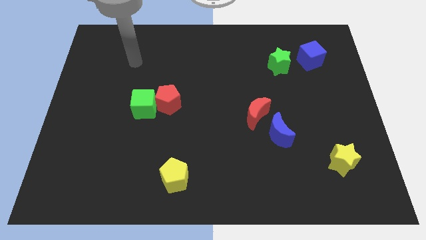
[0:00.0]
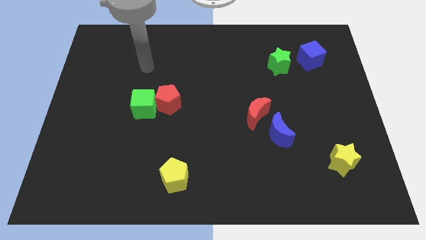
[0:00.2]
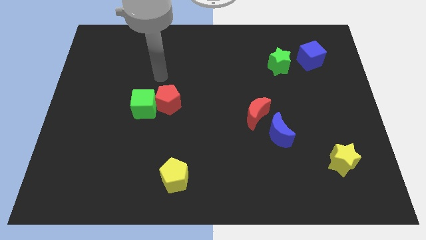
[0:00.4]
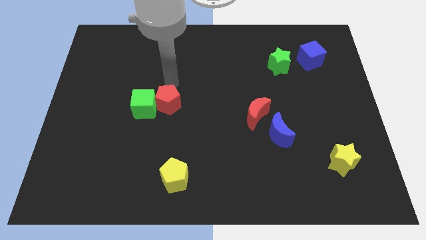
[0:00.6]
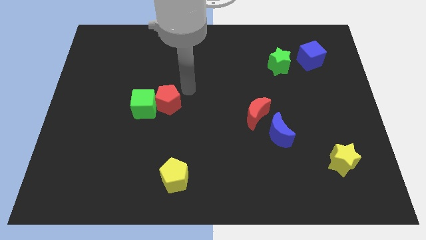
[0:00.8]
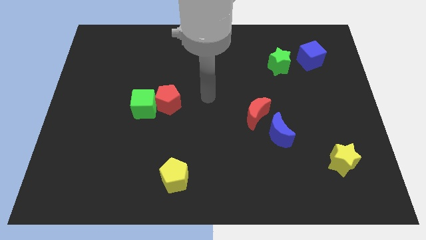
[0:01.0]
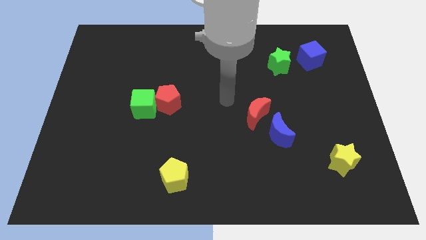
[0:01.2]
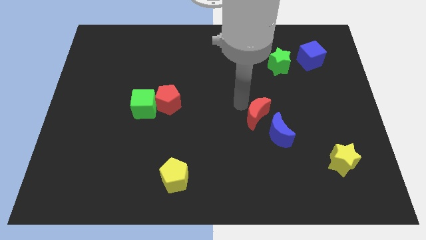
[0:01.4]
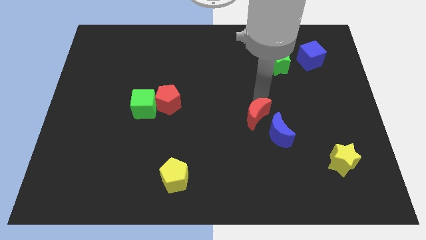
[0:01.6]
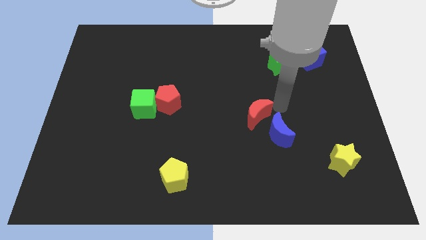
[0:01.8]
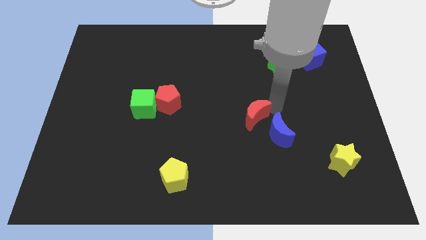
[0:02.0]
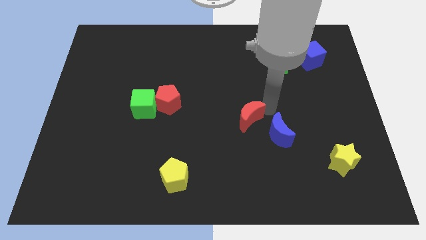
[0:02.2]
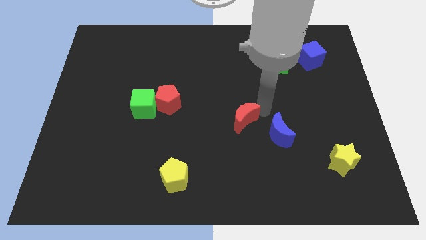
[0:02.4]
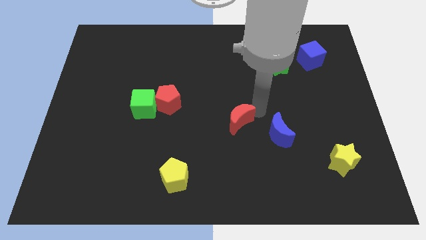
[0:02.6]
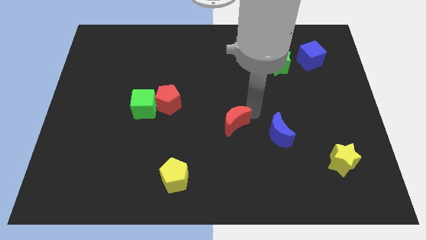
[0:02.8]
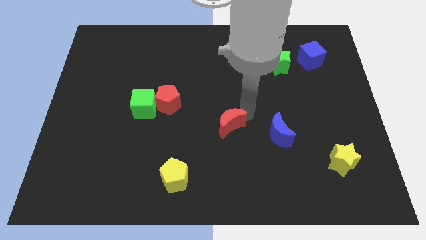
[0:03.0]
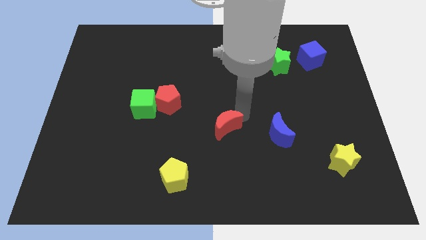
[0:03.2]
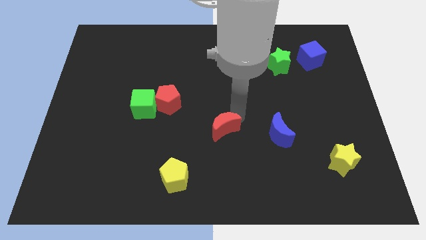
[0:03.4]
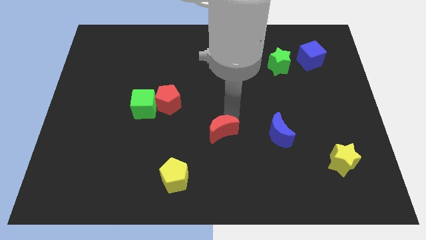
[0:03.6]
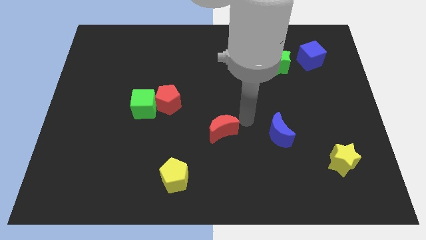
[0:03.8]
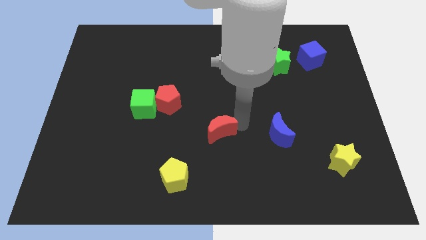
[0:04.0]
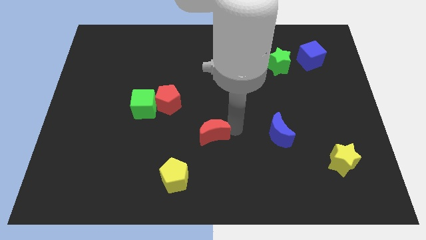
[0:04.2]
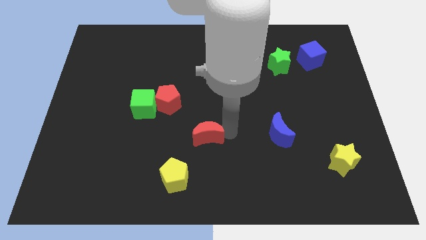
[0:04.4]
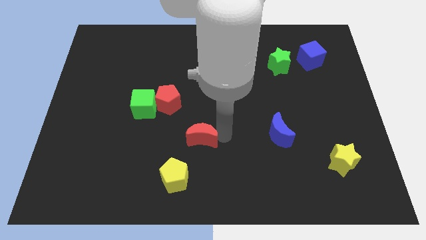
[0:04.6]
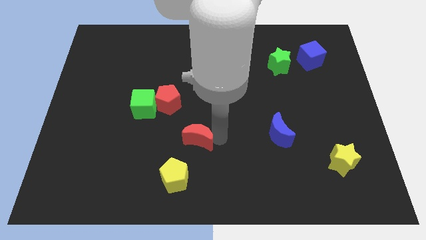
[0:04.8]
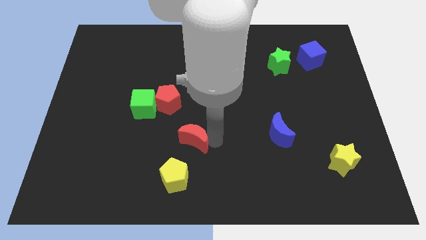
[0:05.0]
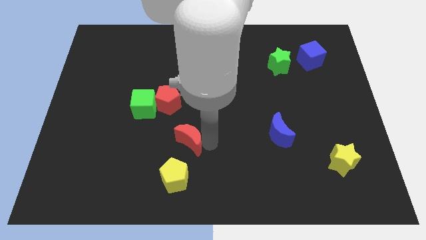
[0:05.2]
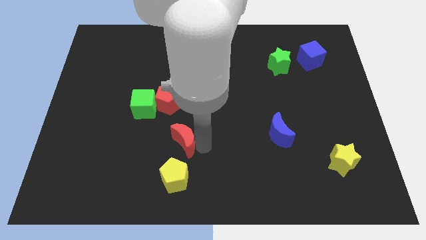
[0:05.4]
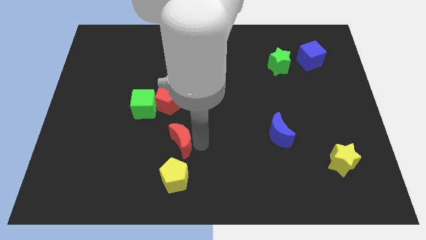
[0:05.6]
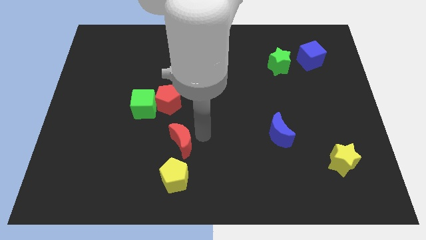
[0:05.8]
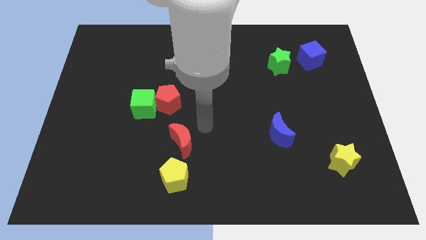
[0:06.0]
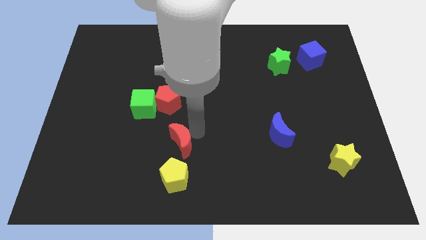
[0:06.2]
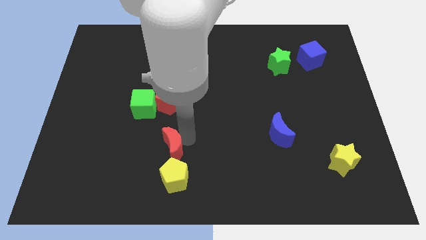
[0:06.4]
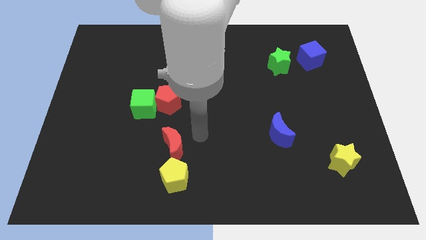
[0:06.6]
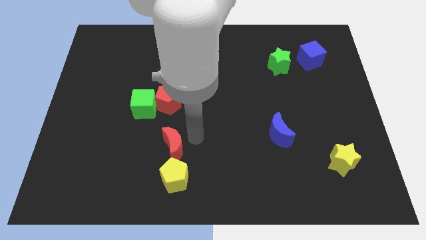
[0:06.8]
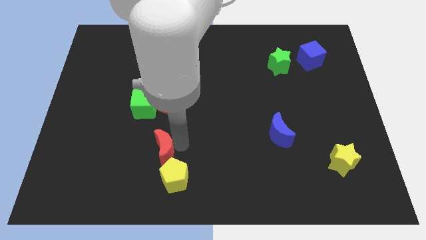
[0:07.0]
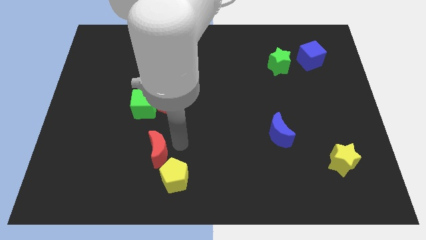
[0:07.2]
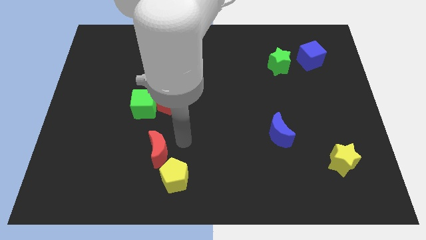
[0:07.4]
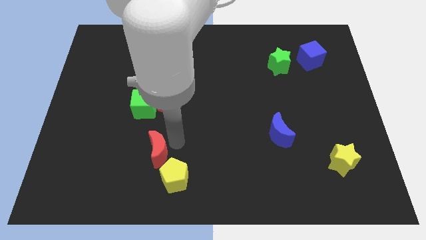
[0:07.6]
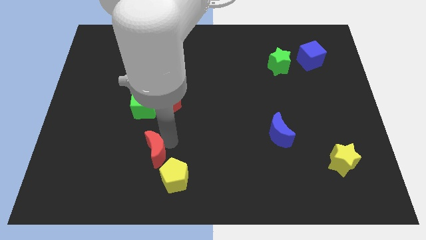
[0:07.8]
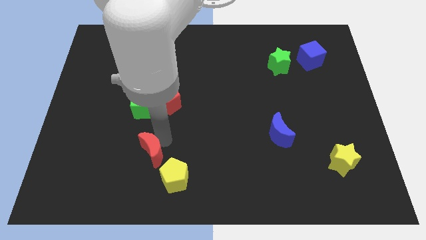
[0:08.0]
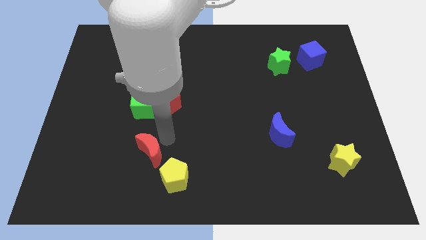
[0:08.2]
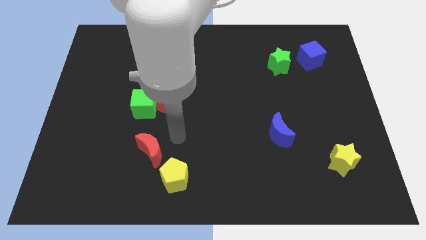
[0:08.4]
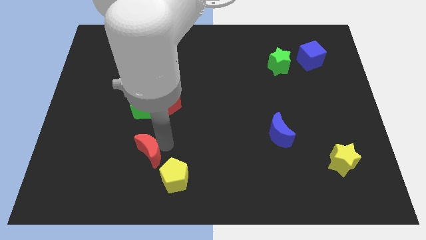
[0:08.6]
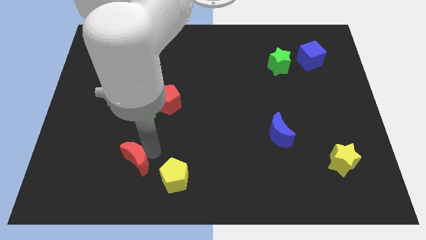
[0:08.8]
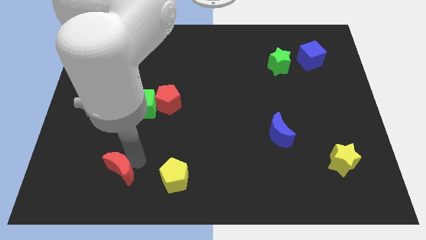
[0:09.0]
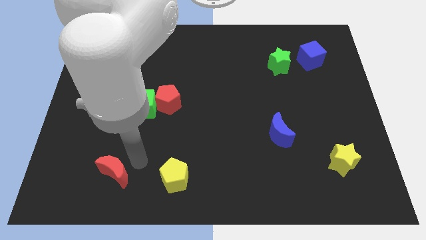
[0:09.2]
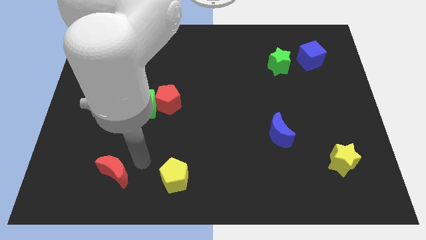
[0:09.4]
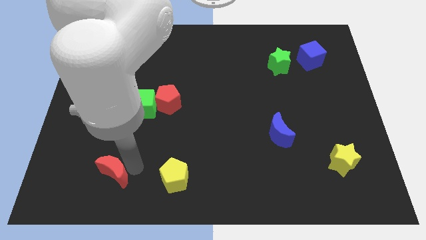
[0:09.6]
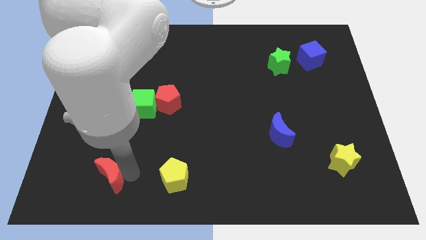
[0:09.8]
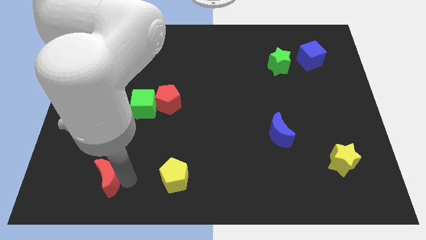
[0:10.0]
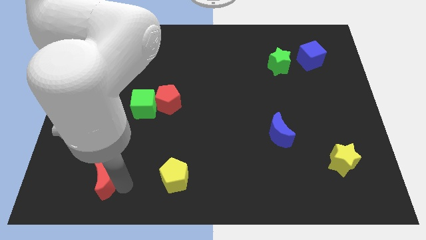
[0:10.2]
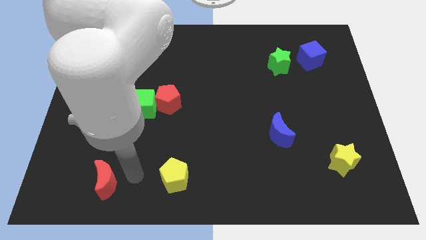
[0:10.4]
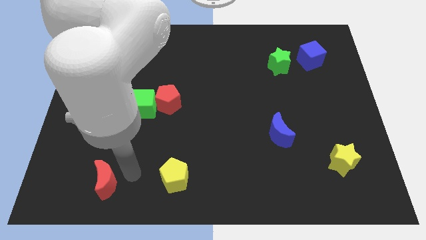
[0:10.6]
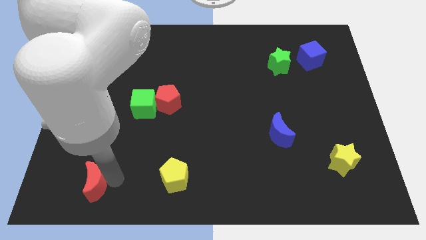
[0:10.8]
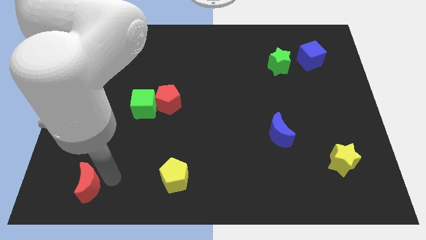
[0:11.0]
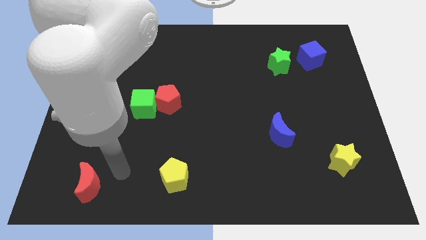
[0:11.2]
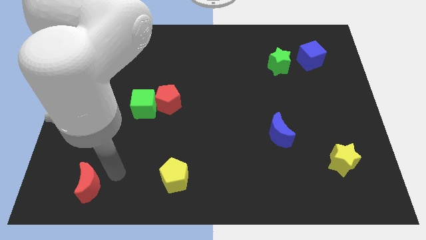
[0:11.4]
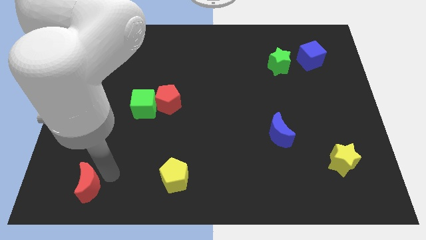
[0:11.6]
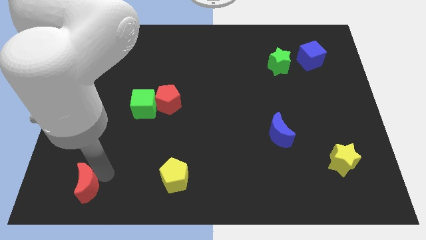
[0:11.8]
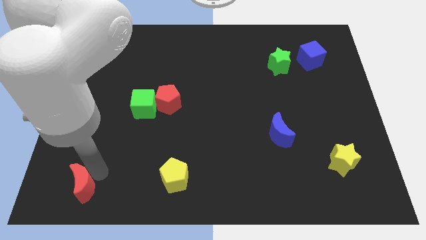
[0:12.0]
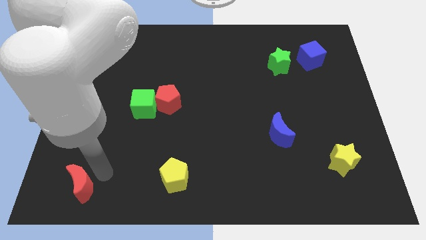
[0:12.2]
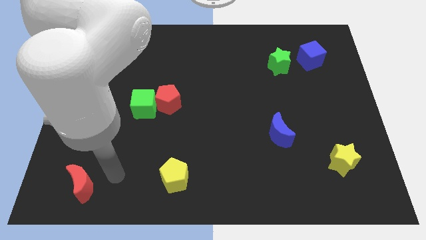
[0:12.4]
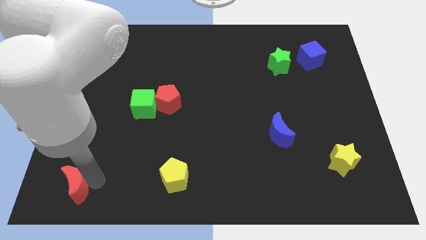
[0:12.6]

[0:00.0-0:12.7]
slide the red moon to the bottom left

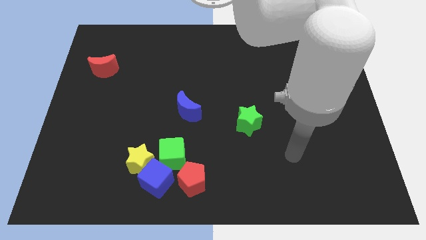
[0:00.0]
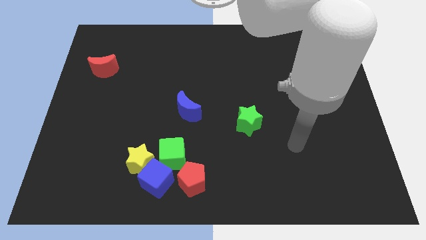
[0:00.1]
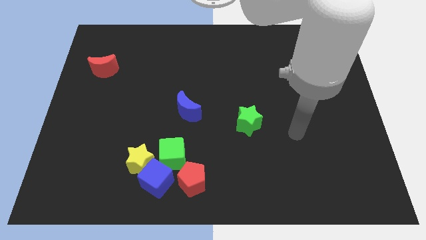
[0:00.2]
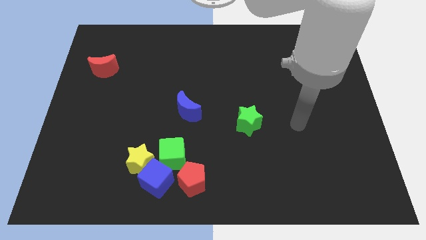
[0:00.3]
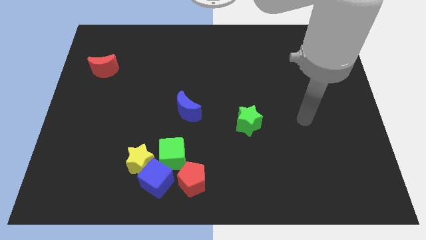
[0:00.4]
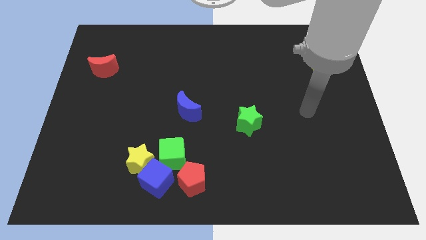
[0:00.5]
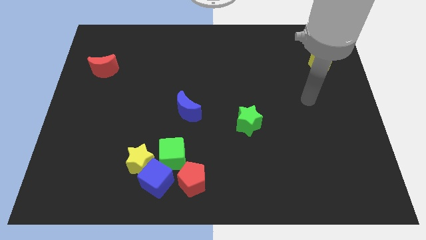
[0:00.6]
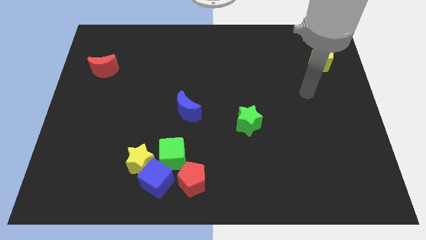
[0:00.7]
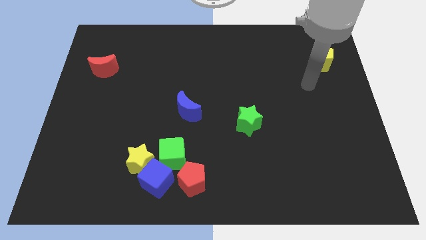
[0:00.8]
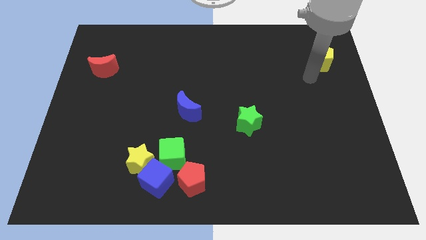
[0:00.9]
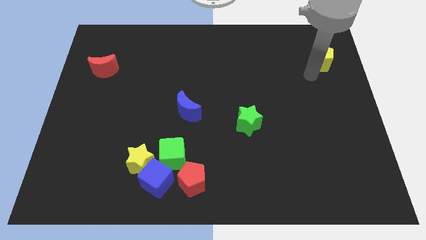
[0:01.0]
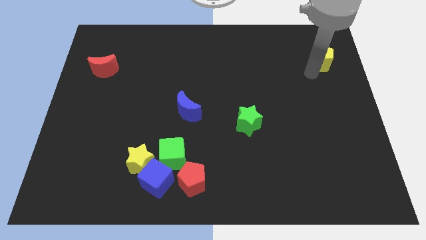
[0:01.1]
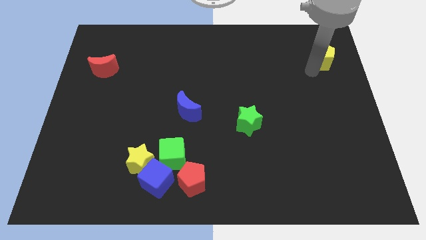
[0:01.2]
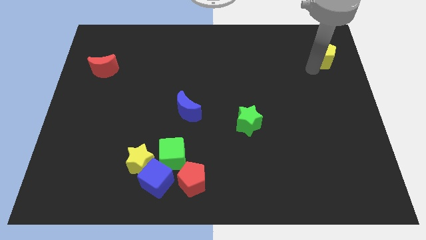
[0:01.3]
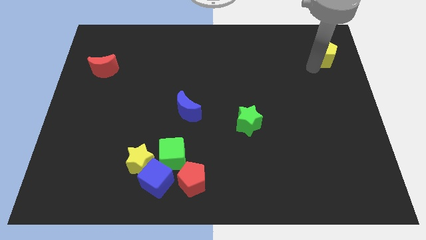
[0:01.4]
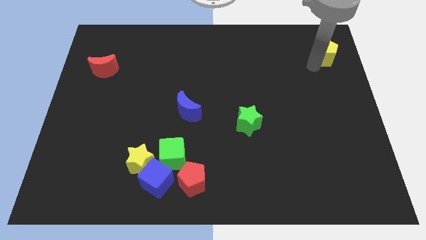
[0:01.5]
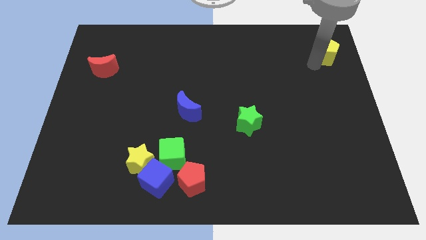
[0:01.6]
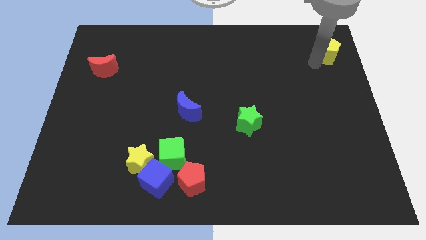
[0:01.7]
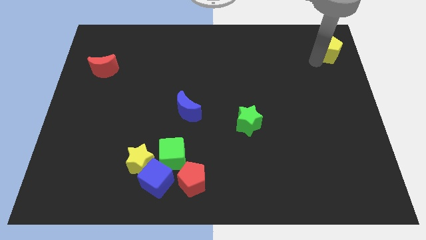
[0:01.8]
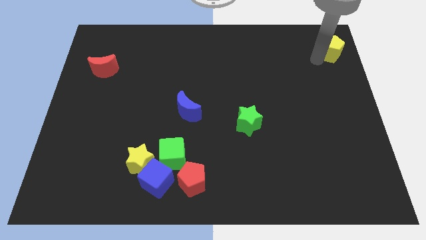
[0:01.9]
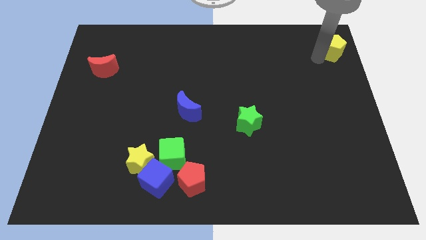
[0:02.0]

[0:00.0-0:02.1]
move the yellow pentagon to the top right
